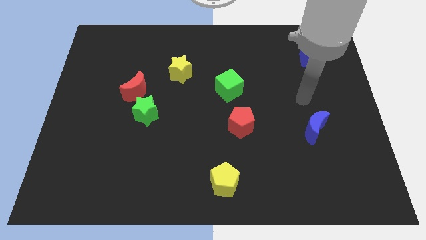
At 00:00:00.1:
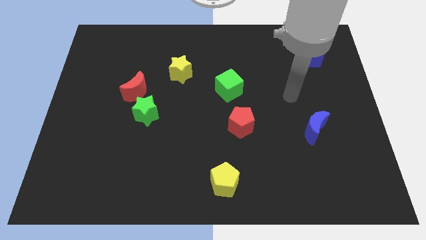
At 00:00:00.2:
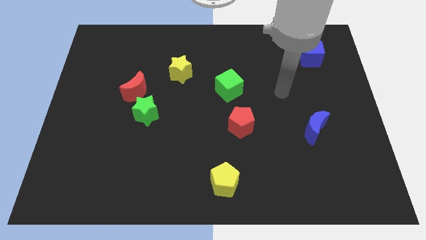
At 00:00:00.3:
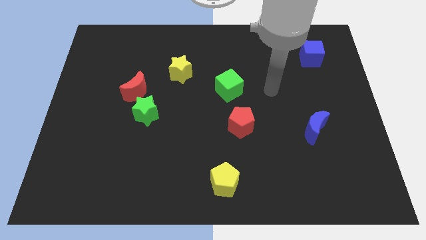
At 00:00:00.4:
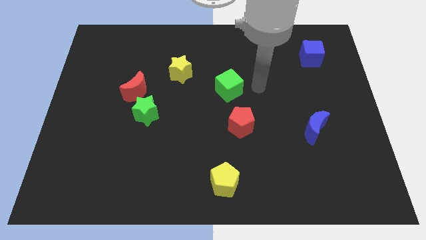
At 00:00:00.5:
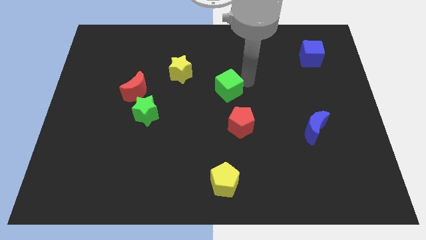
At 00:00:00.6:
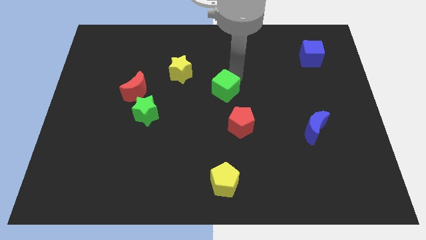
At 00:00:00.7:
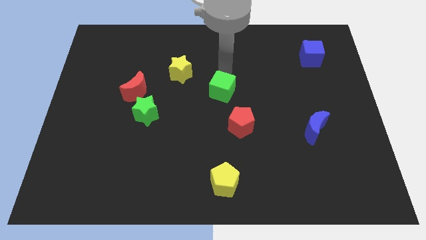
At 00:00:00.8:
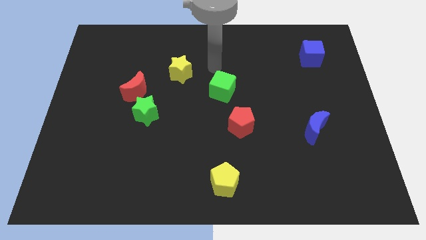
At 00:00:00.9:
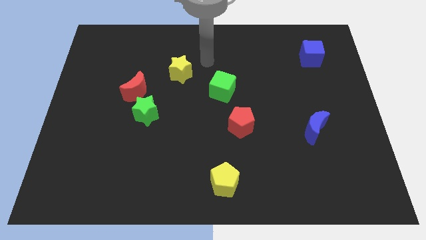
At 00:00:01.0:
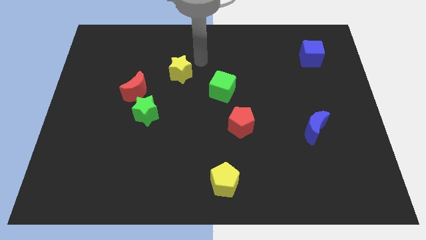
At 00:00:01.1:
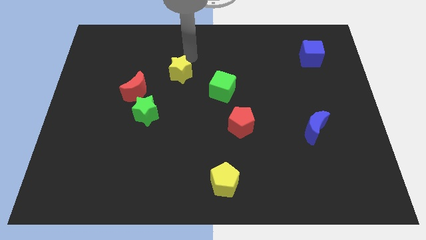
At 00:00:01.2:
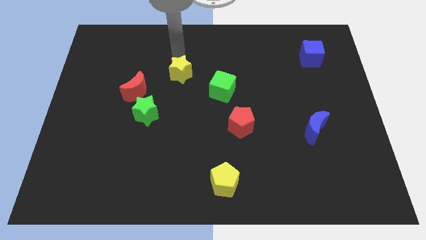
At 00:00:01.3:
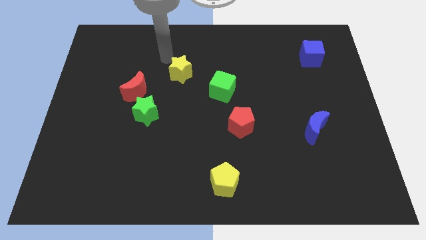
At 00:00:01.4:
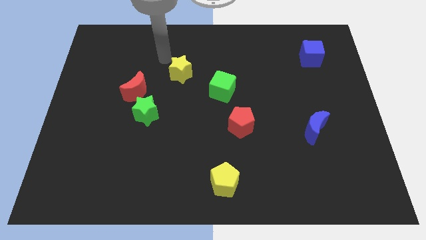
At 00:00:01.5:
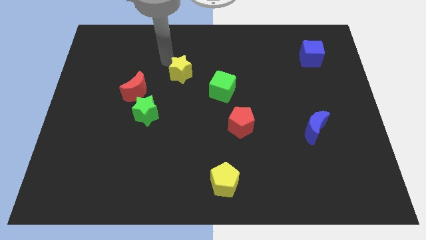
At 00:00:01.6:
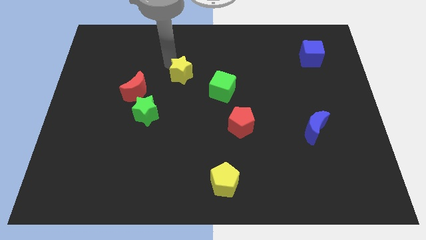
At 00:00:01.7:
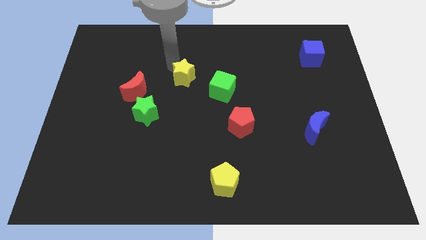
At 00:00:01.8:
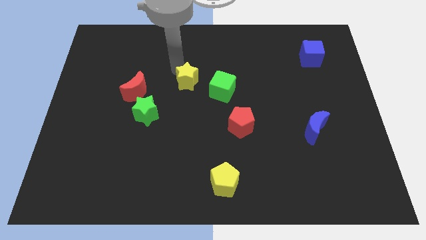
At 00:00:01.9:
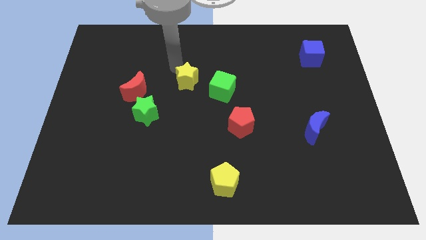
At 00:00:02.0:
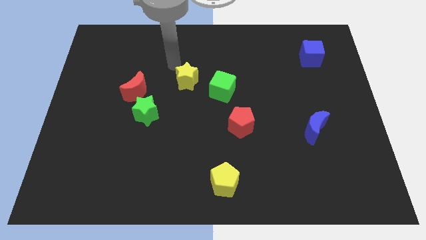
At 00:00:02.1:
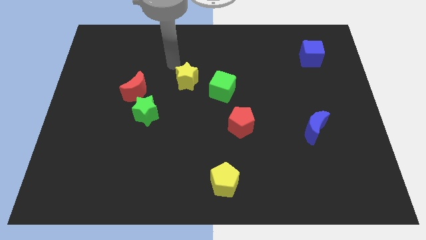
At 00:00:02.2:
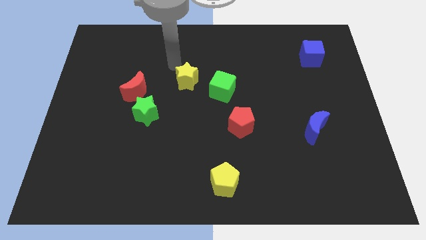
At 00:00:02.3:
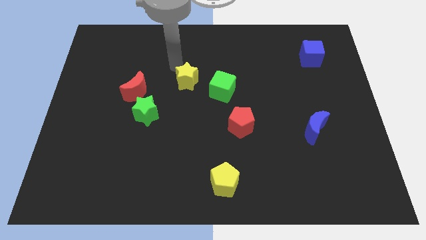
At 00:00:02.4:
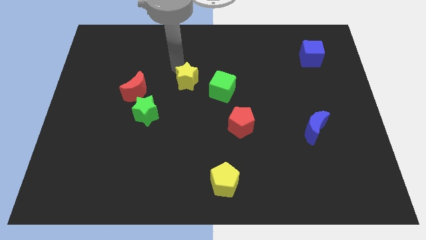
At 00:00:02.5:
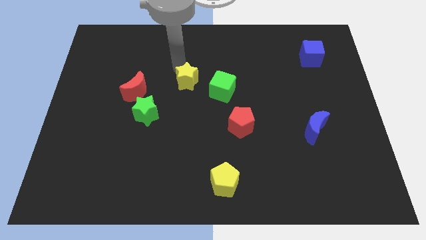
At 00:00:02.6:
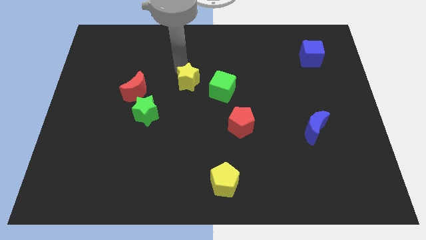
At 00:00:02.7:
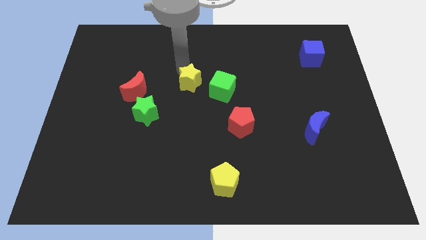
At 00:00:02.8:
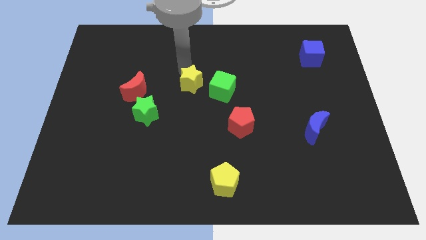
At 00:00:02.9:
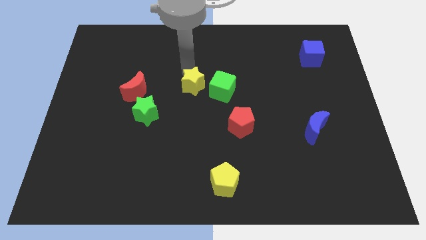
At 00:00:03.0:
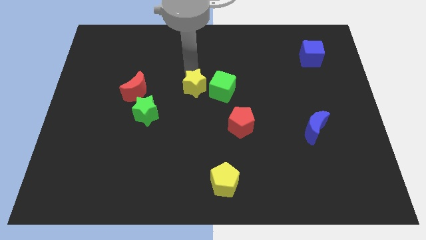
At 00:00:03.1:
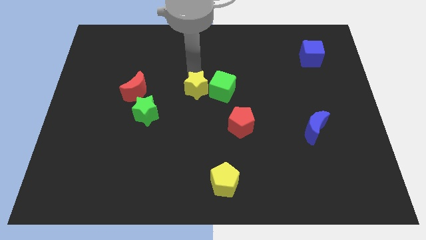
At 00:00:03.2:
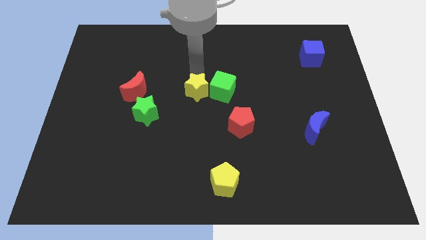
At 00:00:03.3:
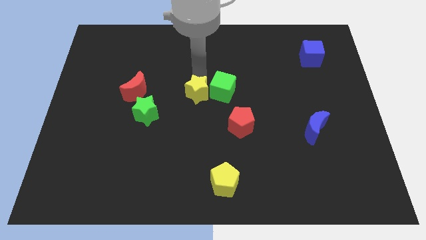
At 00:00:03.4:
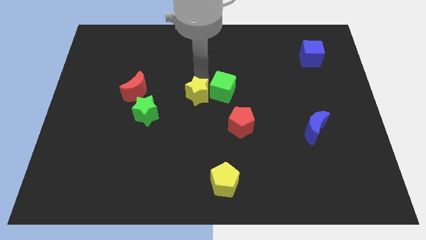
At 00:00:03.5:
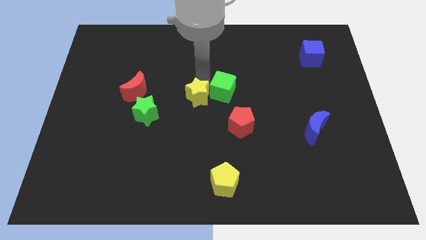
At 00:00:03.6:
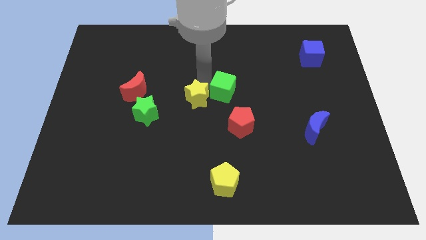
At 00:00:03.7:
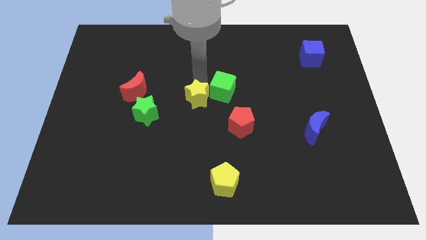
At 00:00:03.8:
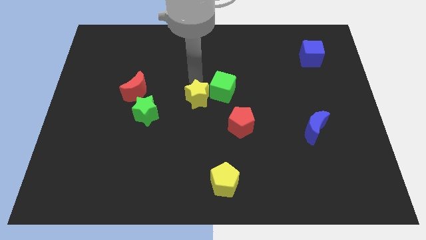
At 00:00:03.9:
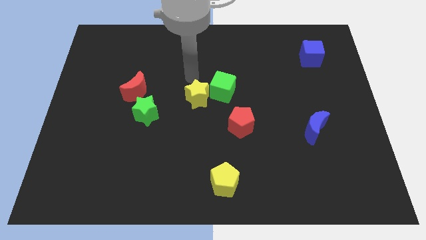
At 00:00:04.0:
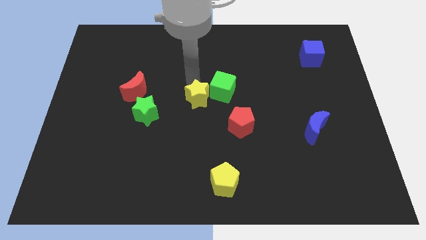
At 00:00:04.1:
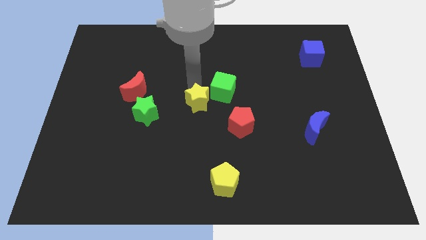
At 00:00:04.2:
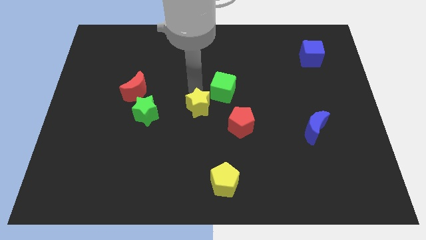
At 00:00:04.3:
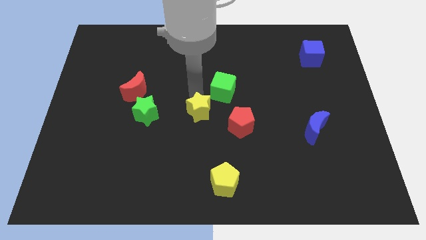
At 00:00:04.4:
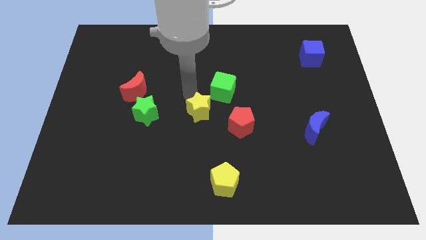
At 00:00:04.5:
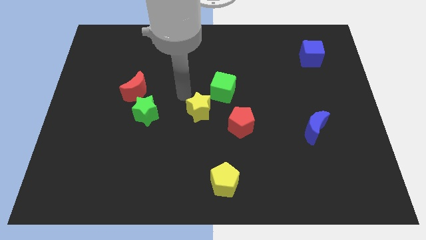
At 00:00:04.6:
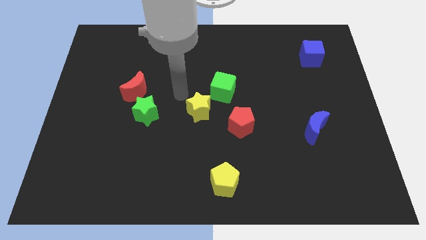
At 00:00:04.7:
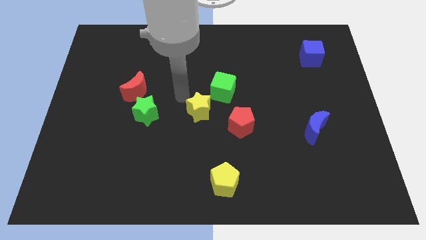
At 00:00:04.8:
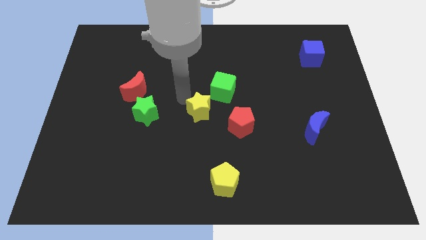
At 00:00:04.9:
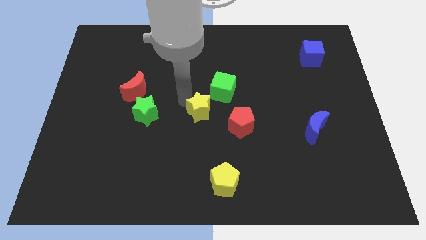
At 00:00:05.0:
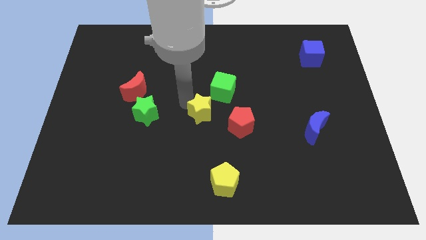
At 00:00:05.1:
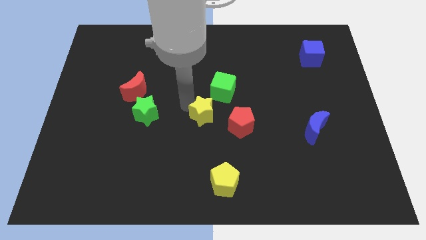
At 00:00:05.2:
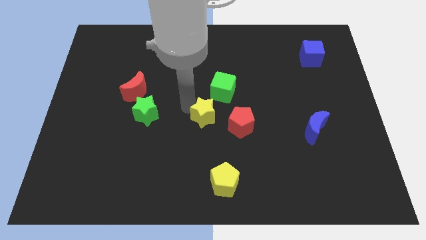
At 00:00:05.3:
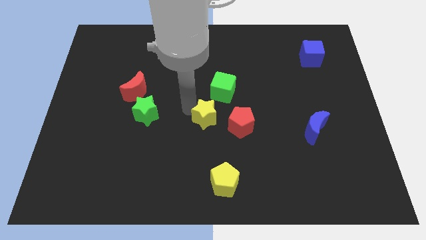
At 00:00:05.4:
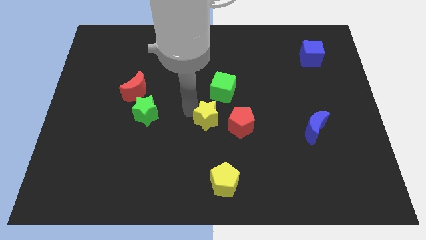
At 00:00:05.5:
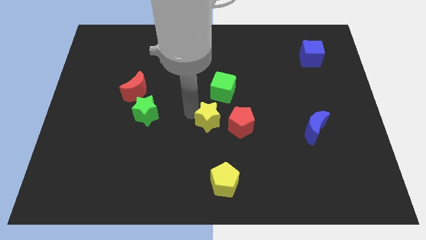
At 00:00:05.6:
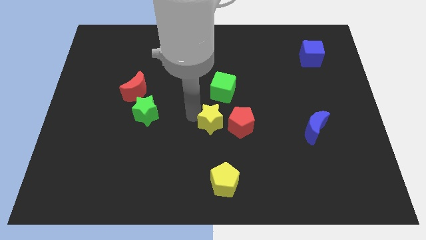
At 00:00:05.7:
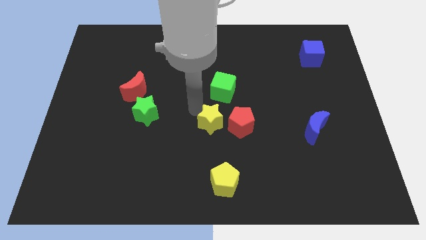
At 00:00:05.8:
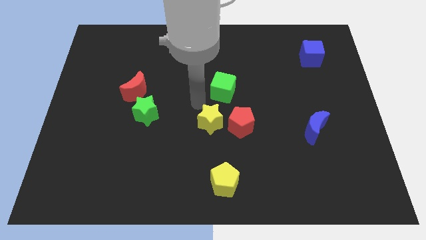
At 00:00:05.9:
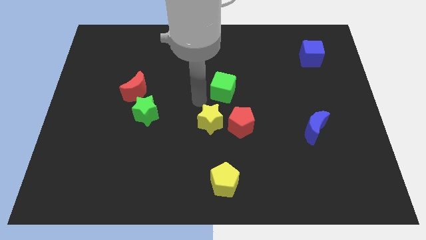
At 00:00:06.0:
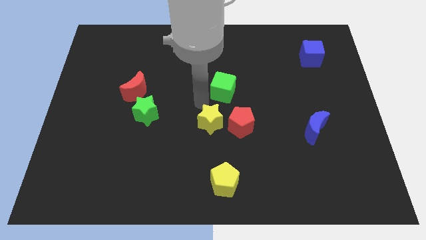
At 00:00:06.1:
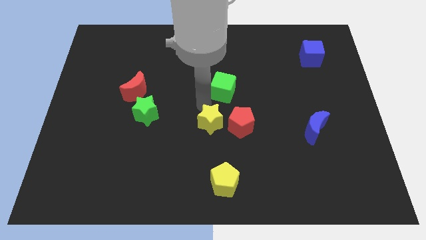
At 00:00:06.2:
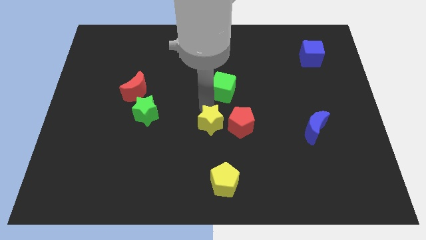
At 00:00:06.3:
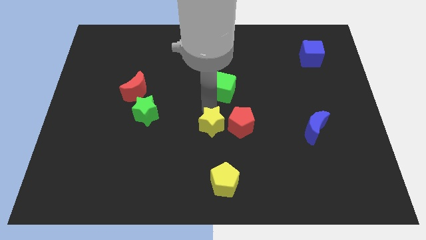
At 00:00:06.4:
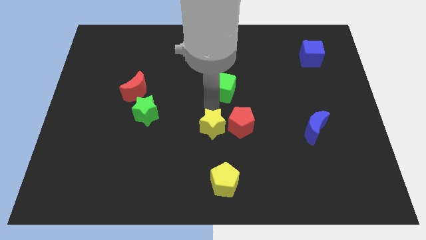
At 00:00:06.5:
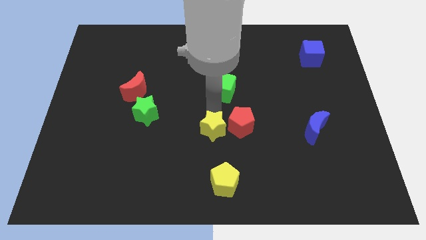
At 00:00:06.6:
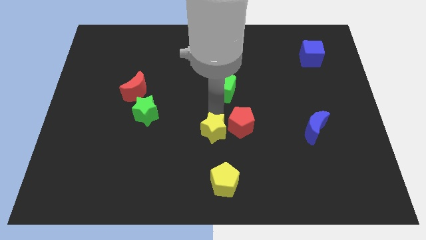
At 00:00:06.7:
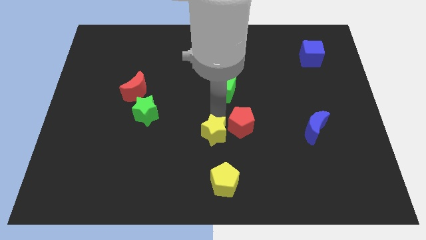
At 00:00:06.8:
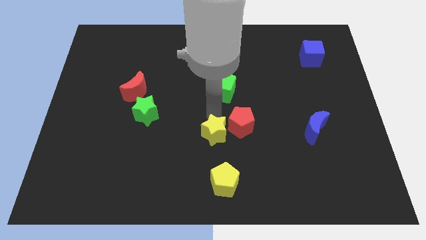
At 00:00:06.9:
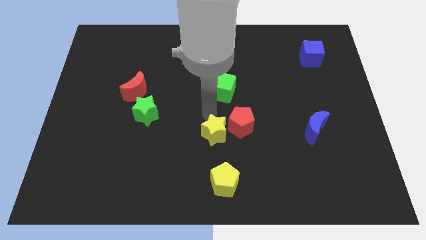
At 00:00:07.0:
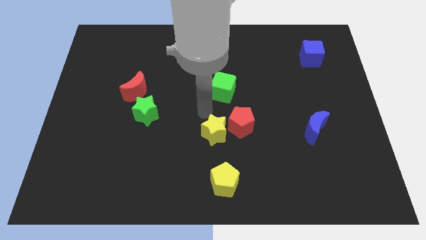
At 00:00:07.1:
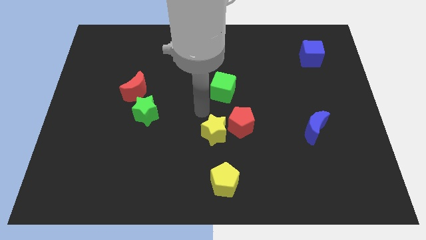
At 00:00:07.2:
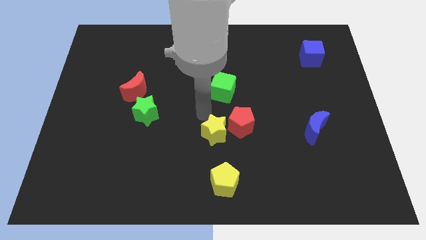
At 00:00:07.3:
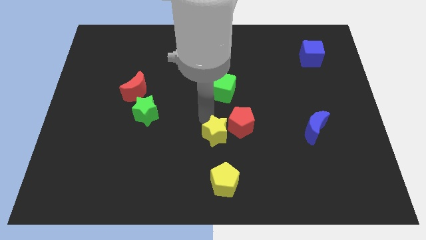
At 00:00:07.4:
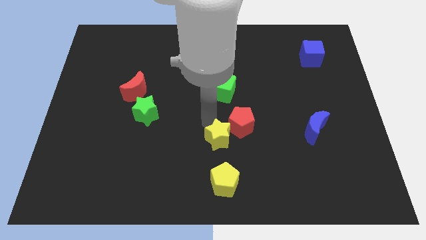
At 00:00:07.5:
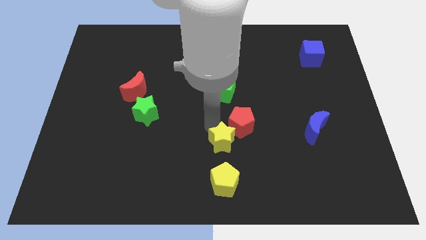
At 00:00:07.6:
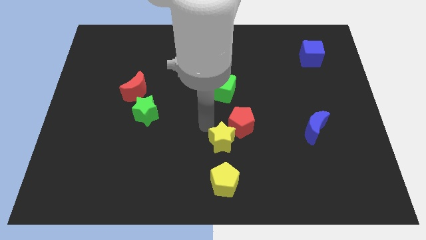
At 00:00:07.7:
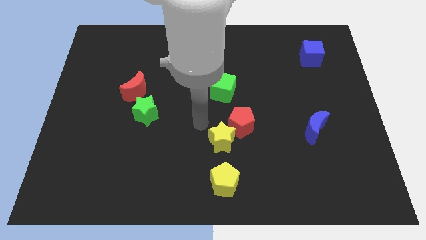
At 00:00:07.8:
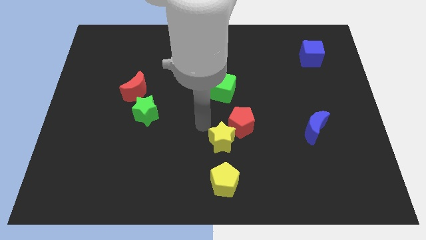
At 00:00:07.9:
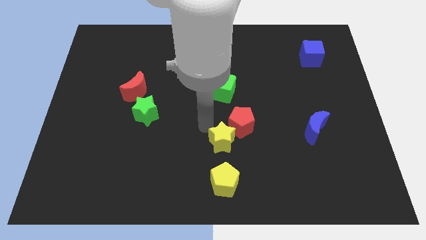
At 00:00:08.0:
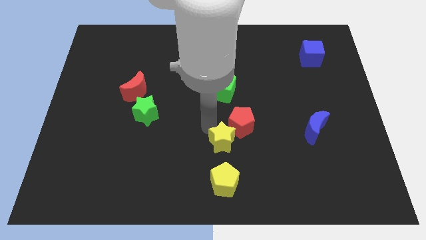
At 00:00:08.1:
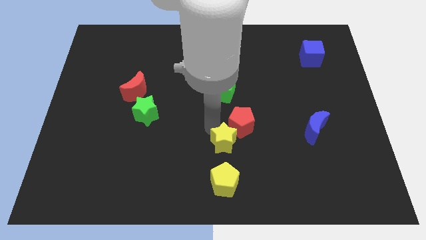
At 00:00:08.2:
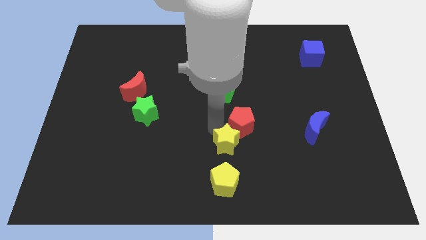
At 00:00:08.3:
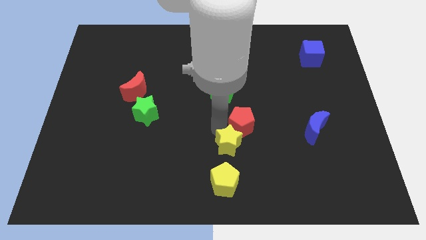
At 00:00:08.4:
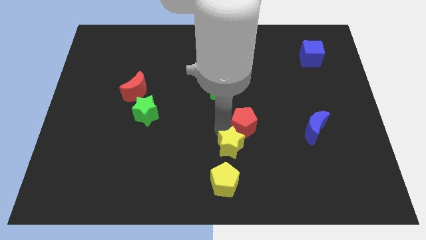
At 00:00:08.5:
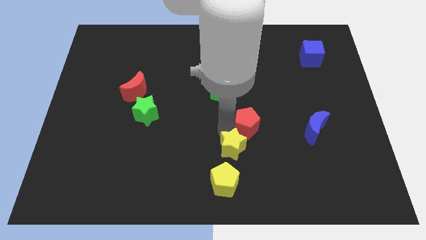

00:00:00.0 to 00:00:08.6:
move the yellow star to the top right side of the yellow pentagon
